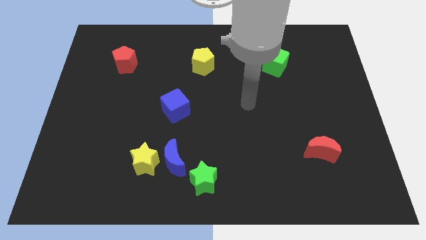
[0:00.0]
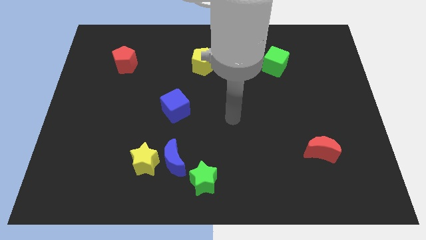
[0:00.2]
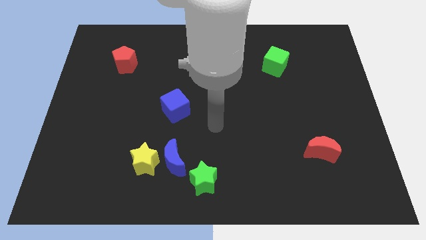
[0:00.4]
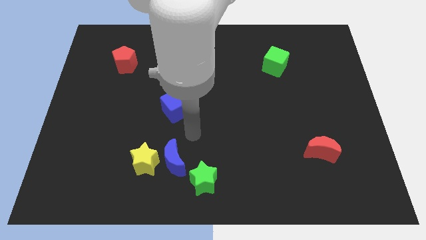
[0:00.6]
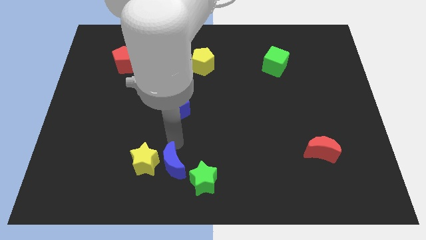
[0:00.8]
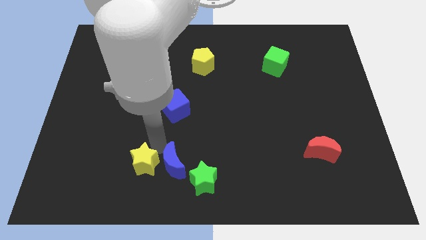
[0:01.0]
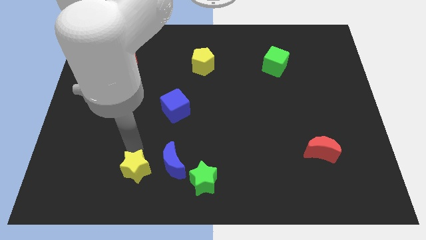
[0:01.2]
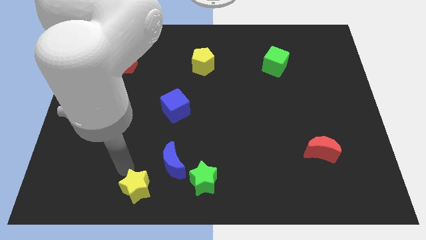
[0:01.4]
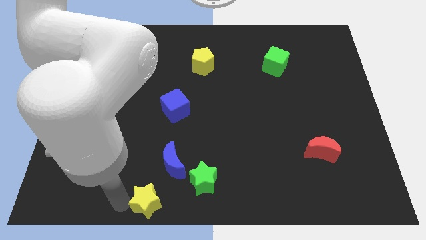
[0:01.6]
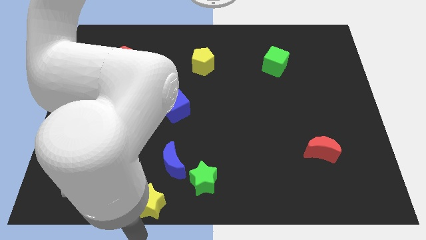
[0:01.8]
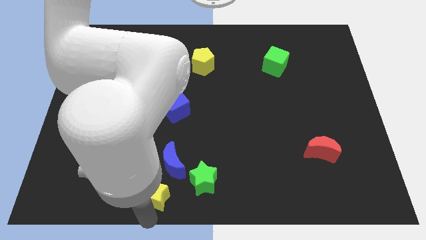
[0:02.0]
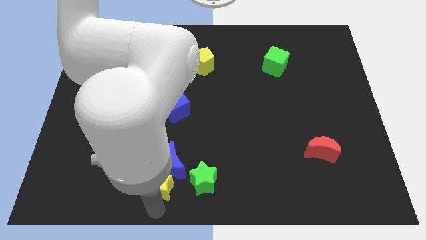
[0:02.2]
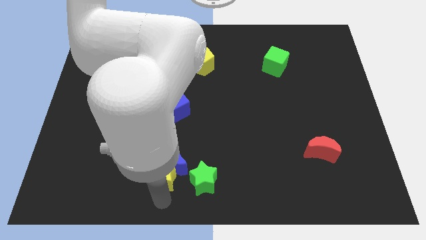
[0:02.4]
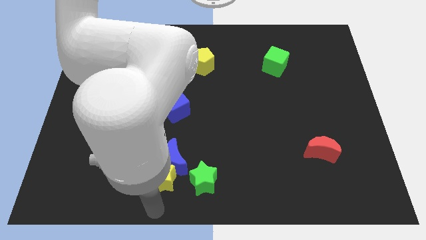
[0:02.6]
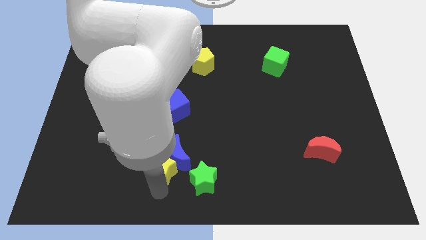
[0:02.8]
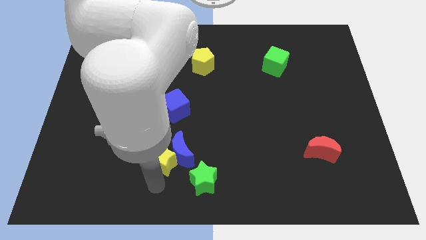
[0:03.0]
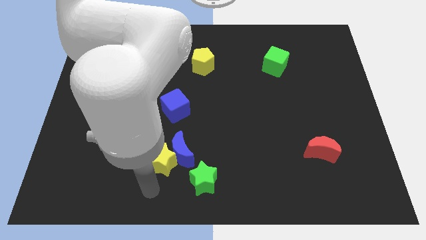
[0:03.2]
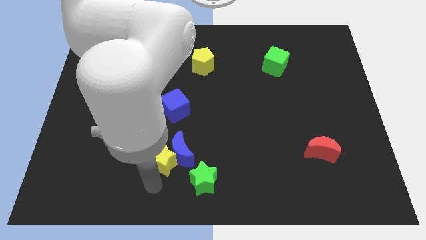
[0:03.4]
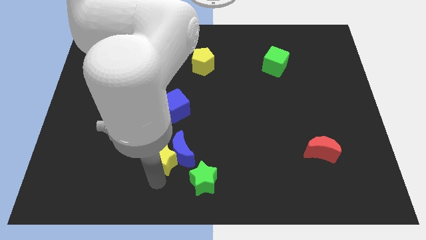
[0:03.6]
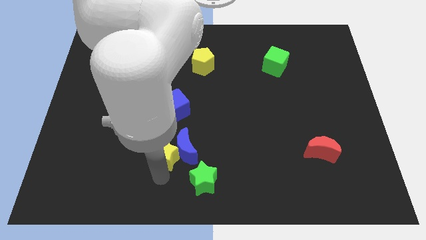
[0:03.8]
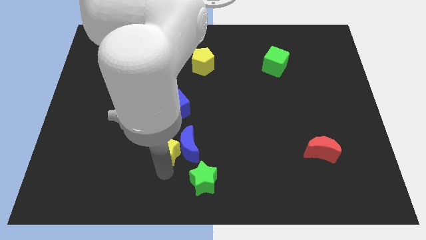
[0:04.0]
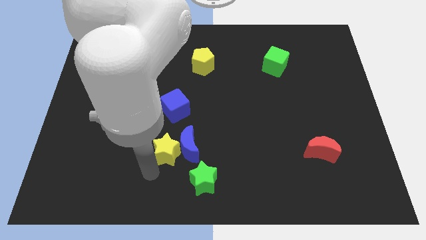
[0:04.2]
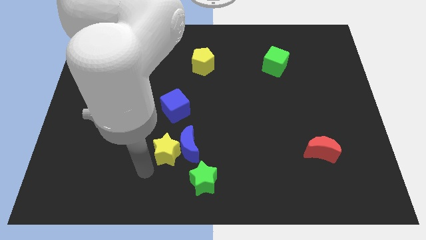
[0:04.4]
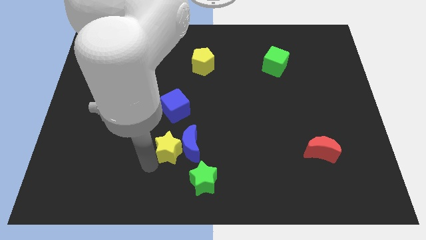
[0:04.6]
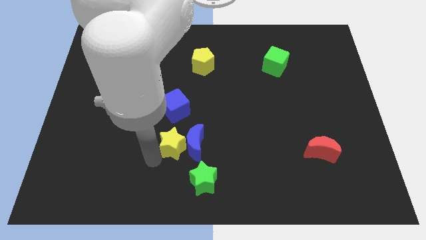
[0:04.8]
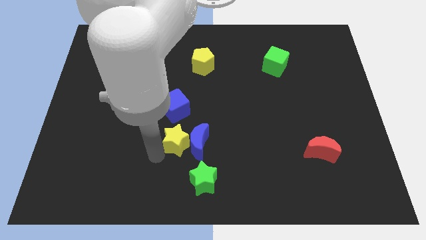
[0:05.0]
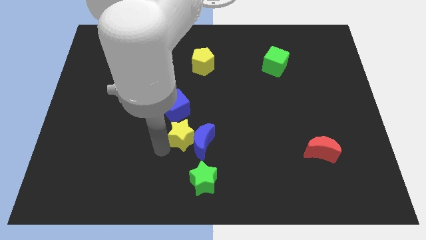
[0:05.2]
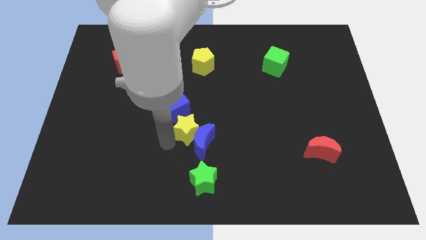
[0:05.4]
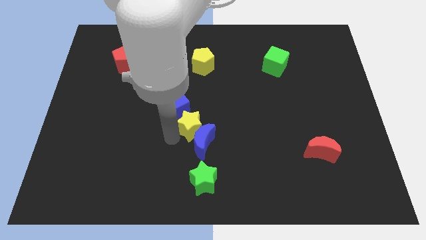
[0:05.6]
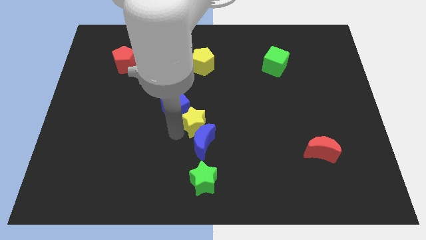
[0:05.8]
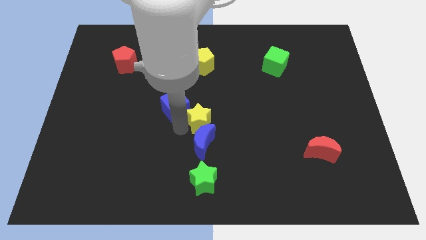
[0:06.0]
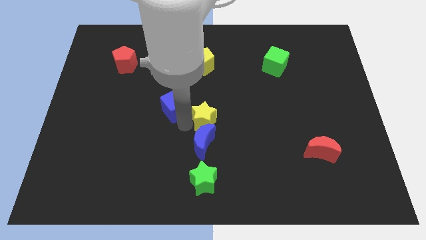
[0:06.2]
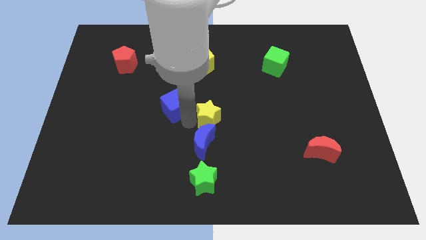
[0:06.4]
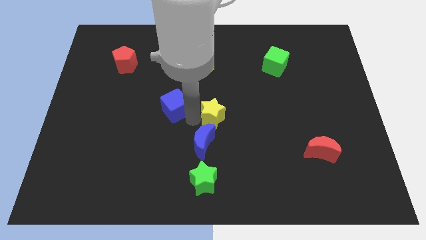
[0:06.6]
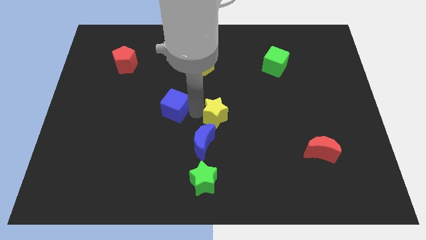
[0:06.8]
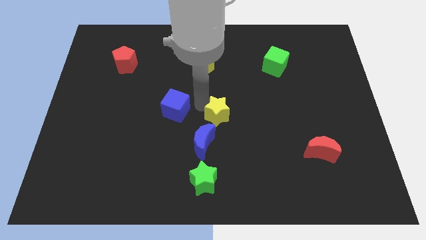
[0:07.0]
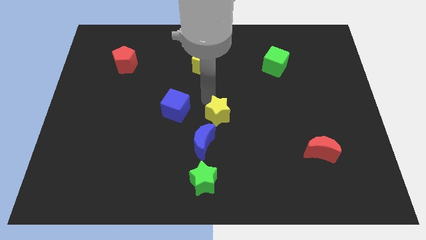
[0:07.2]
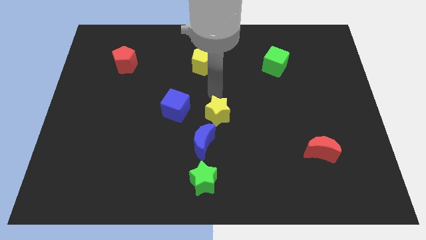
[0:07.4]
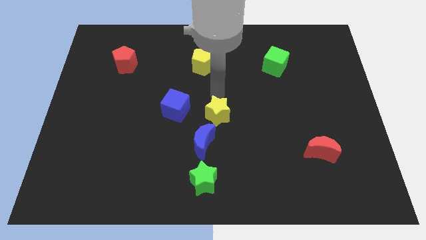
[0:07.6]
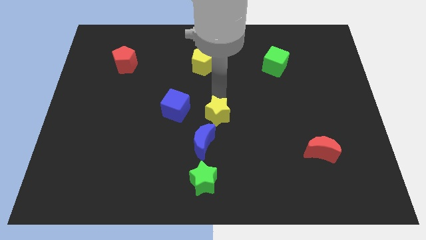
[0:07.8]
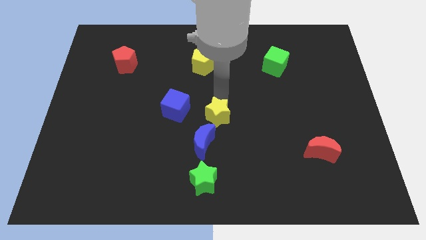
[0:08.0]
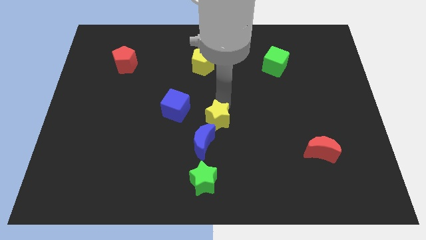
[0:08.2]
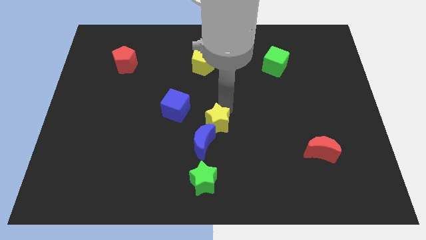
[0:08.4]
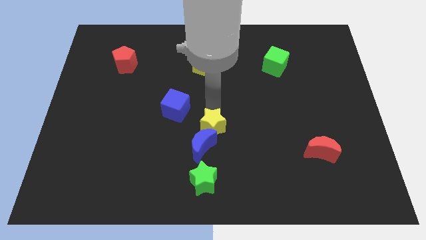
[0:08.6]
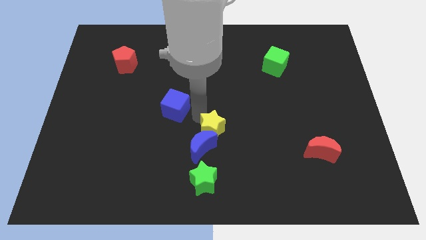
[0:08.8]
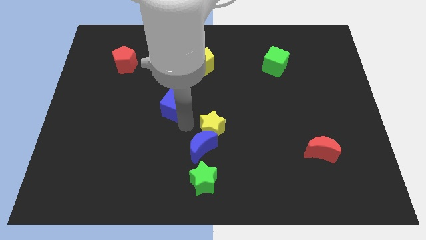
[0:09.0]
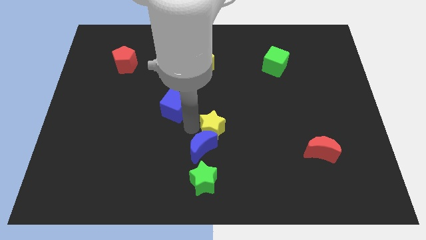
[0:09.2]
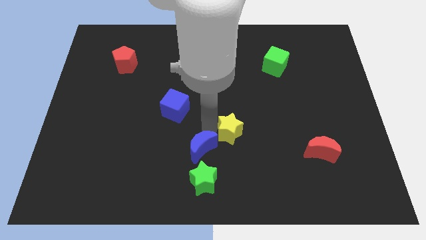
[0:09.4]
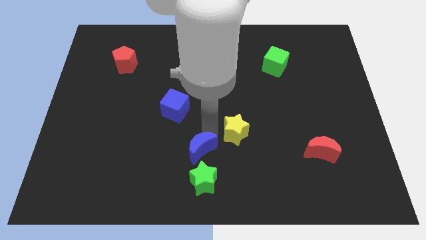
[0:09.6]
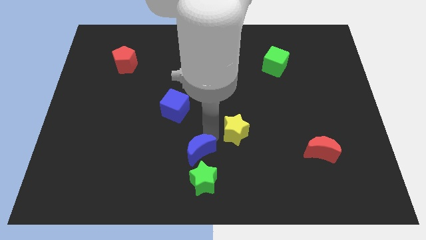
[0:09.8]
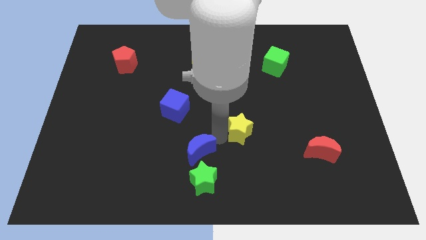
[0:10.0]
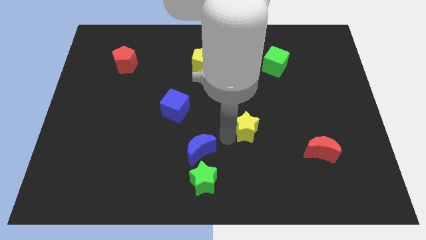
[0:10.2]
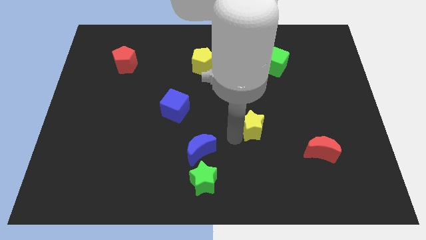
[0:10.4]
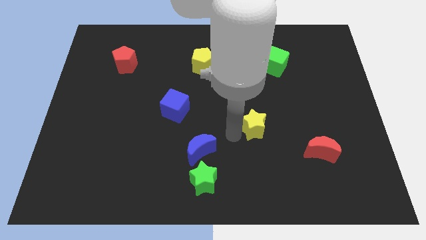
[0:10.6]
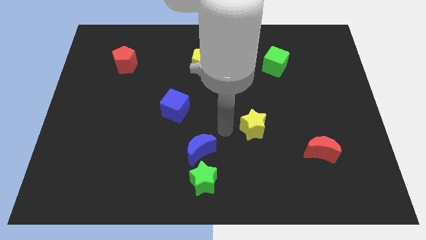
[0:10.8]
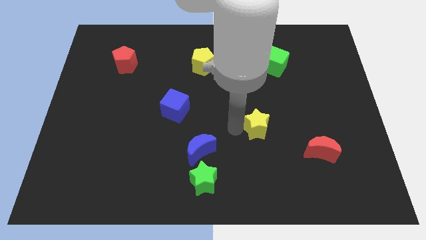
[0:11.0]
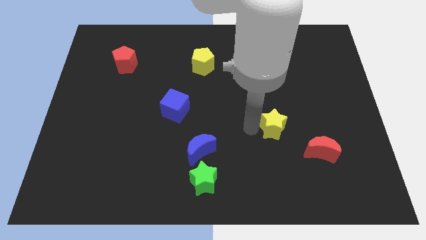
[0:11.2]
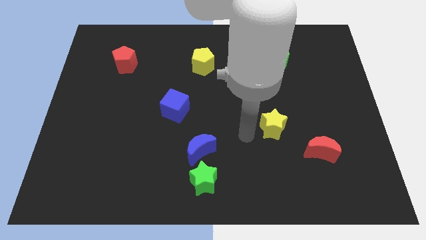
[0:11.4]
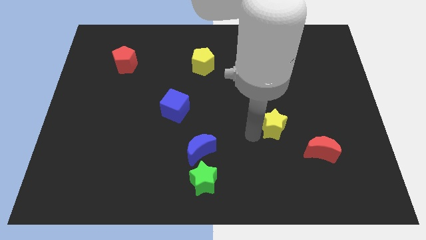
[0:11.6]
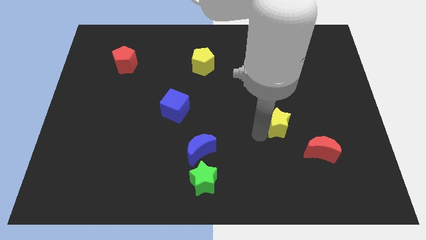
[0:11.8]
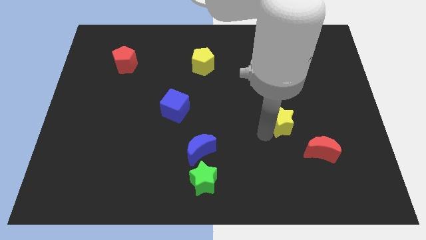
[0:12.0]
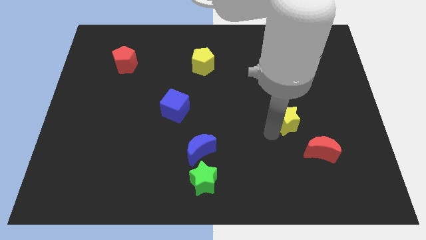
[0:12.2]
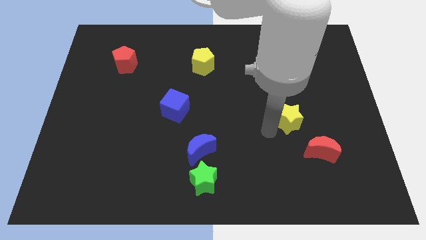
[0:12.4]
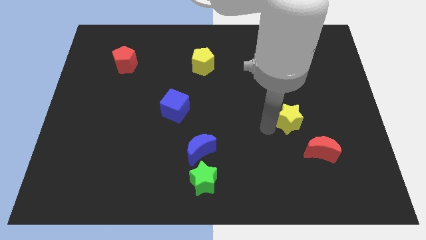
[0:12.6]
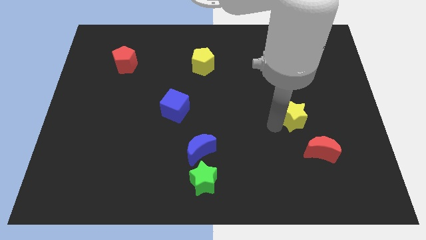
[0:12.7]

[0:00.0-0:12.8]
slide the yellow star to the top side of the red moon
